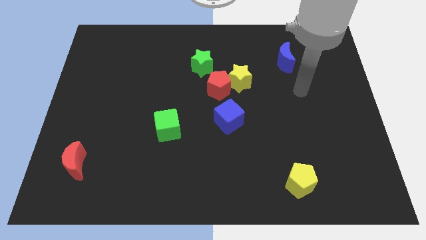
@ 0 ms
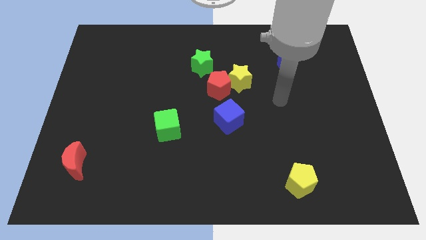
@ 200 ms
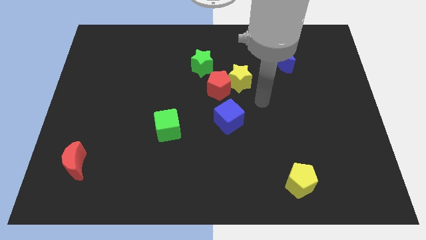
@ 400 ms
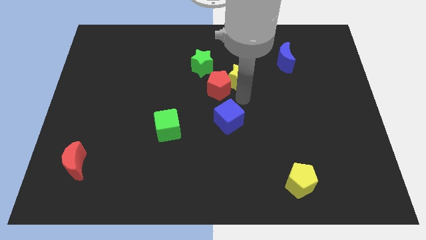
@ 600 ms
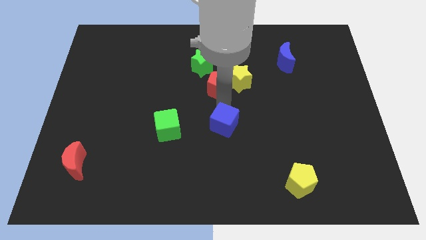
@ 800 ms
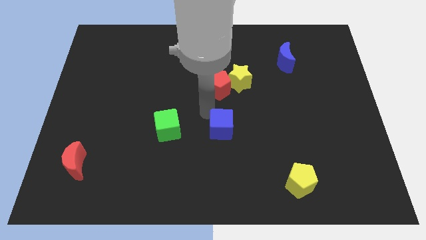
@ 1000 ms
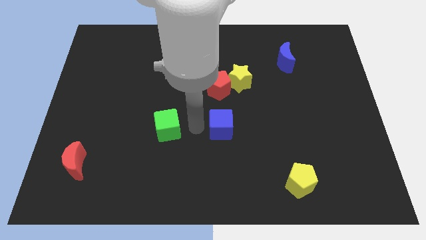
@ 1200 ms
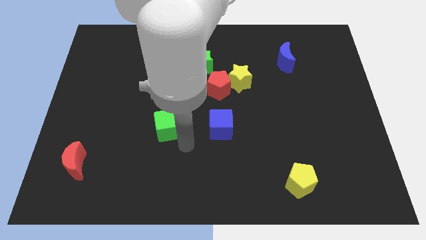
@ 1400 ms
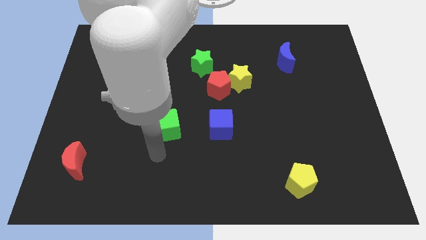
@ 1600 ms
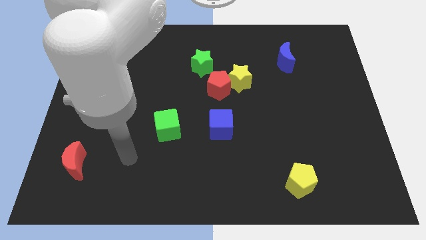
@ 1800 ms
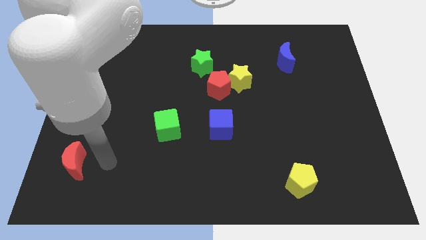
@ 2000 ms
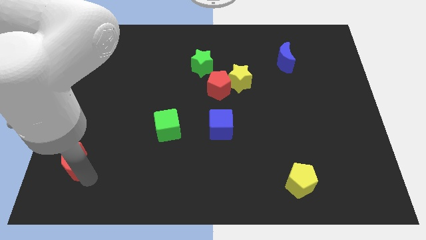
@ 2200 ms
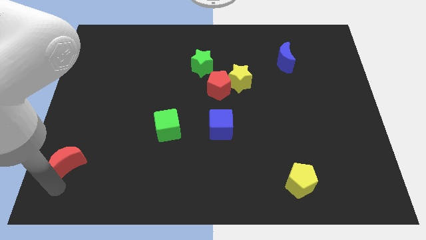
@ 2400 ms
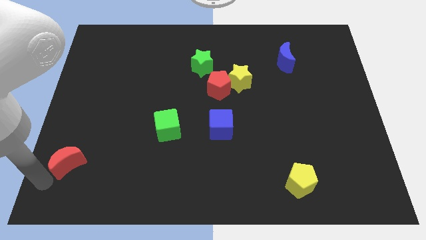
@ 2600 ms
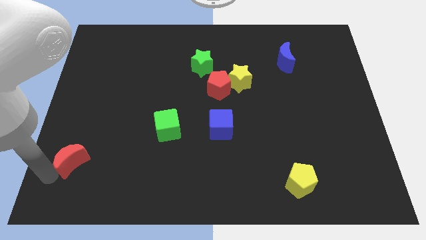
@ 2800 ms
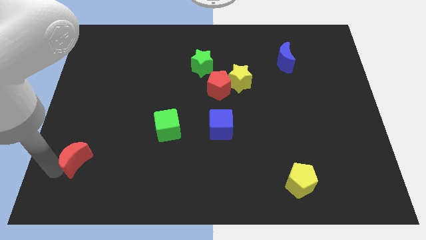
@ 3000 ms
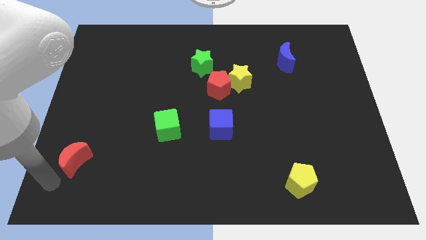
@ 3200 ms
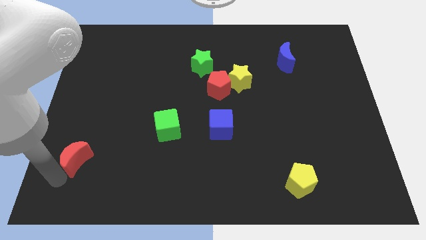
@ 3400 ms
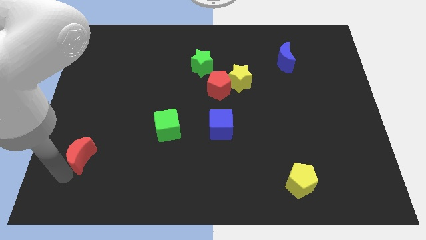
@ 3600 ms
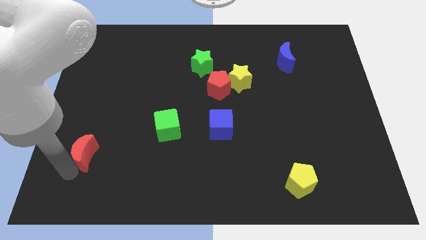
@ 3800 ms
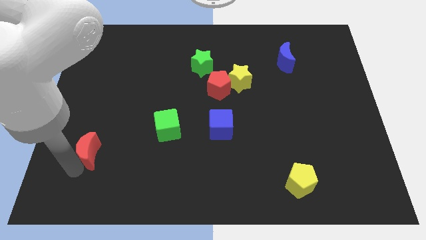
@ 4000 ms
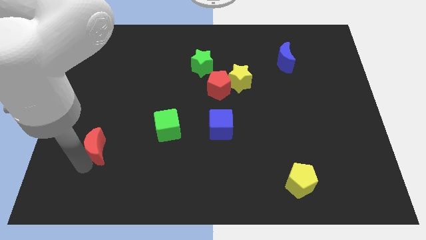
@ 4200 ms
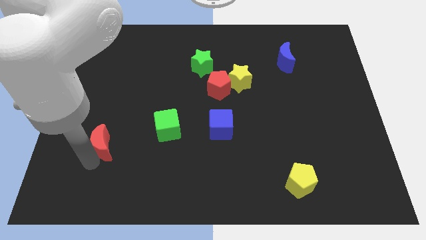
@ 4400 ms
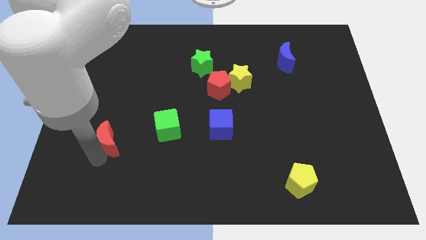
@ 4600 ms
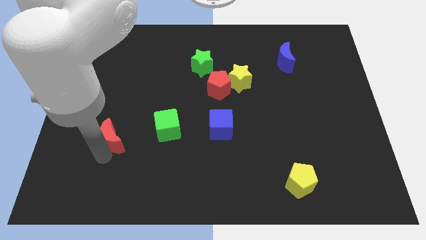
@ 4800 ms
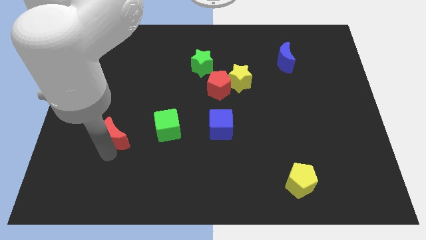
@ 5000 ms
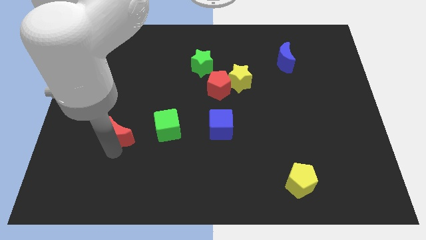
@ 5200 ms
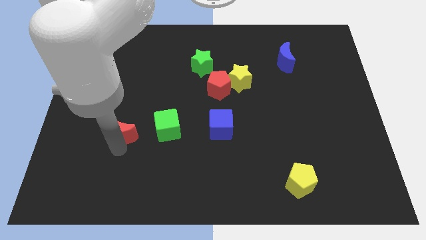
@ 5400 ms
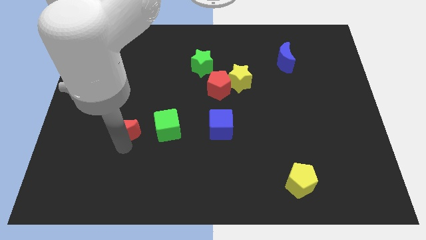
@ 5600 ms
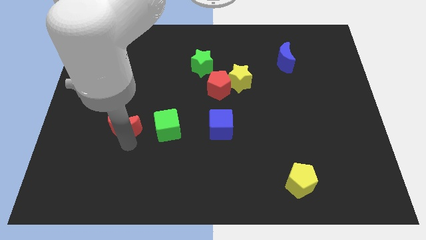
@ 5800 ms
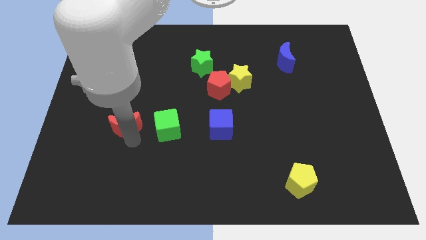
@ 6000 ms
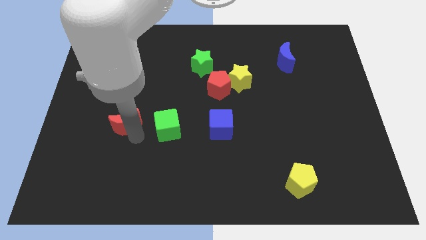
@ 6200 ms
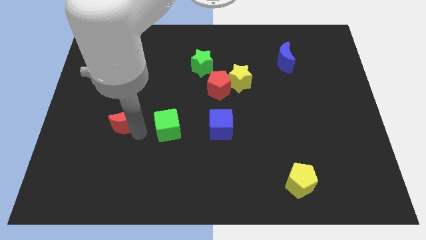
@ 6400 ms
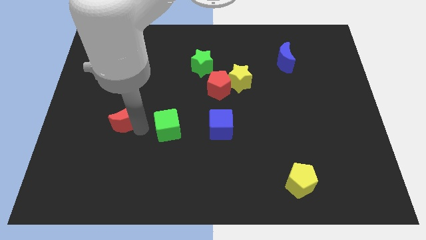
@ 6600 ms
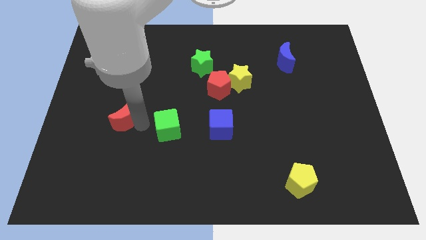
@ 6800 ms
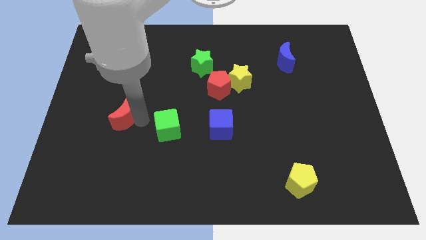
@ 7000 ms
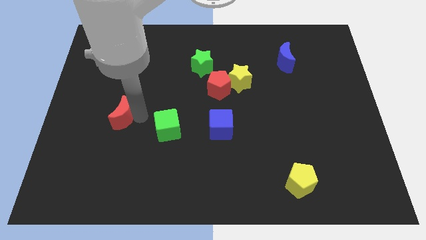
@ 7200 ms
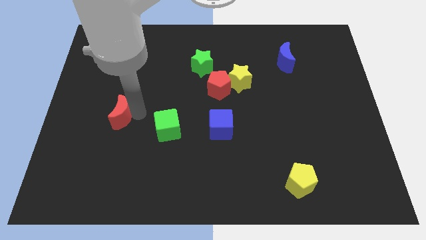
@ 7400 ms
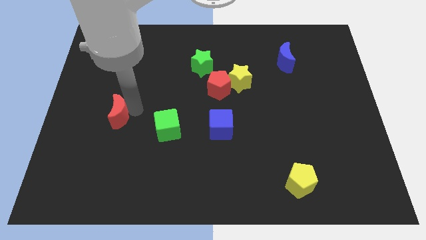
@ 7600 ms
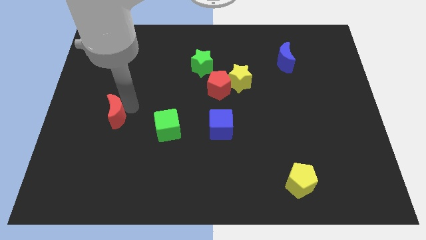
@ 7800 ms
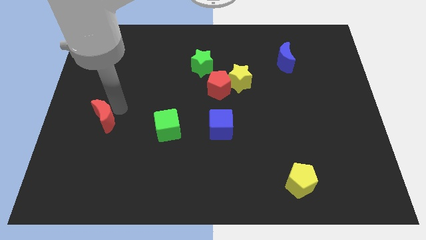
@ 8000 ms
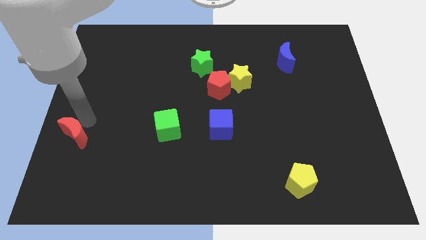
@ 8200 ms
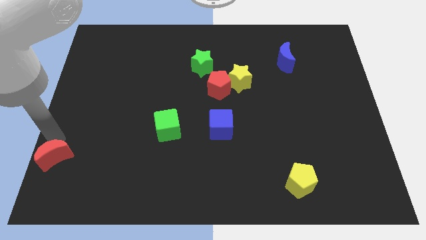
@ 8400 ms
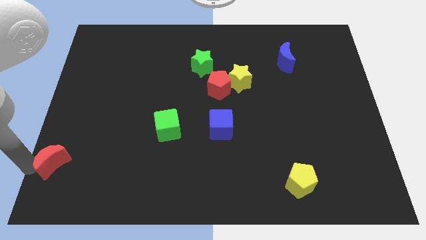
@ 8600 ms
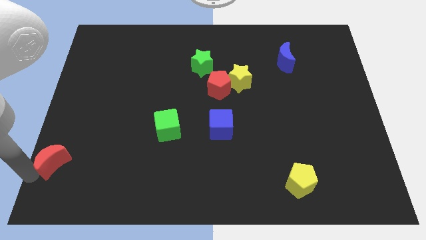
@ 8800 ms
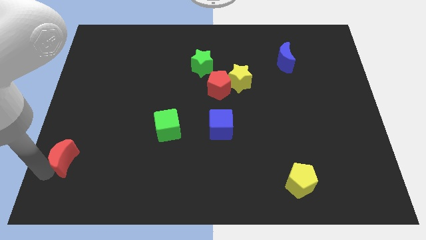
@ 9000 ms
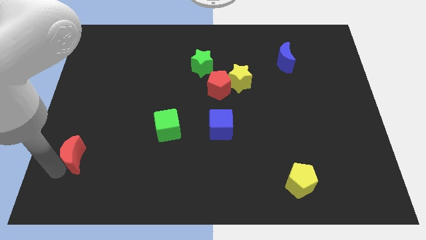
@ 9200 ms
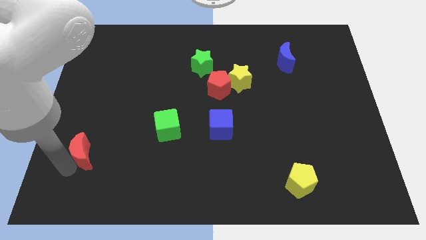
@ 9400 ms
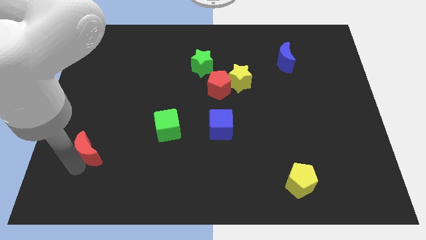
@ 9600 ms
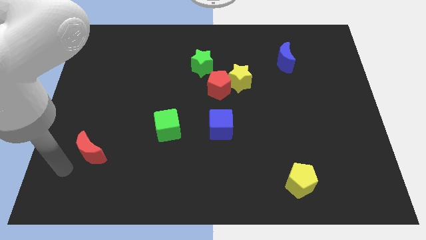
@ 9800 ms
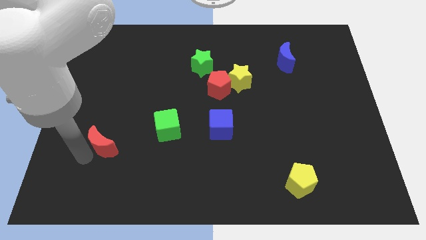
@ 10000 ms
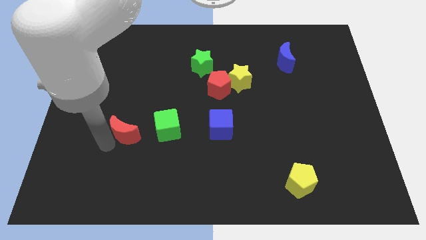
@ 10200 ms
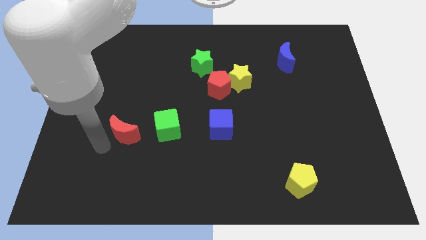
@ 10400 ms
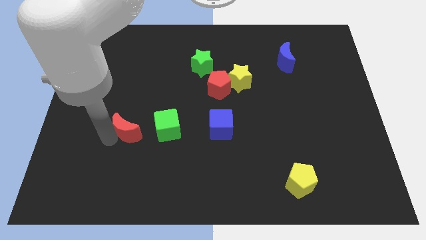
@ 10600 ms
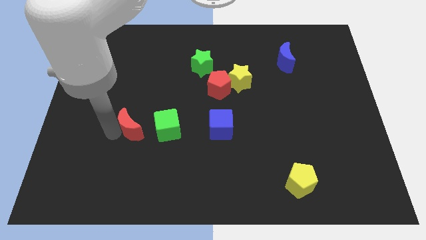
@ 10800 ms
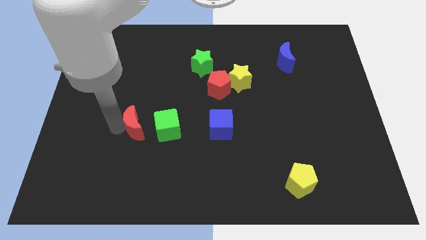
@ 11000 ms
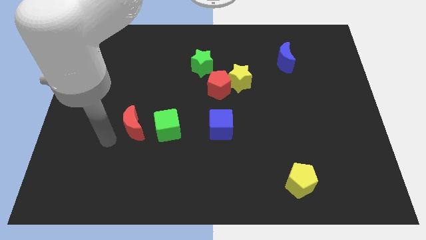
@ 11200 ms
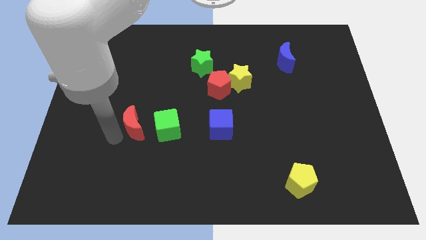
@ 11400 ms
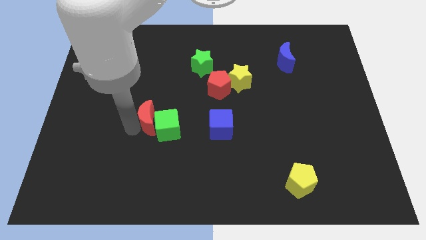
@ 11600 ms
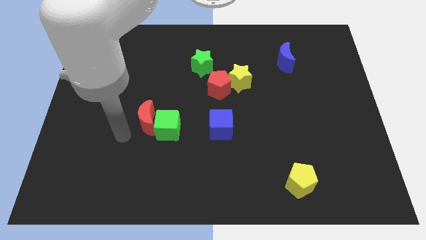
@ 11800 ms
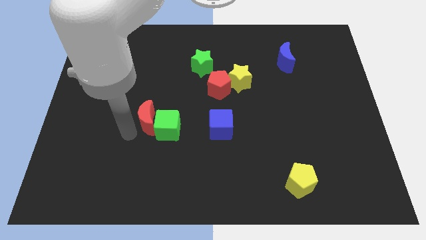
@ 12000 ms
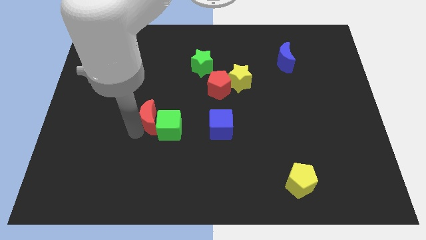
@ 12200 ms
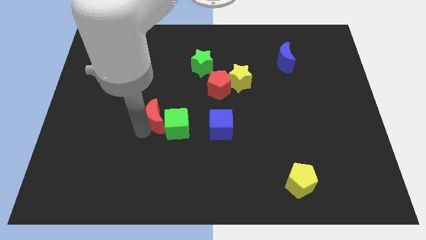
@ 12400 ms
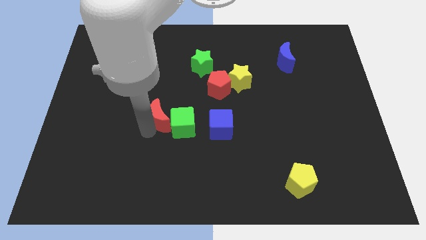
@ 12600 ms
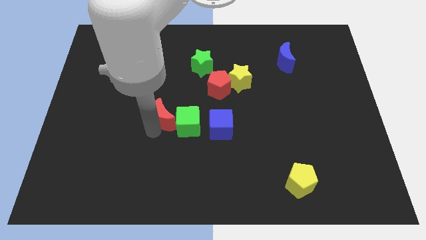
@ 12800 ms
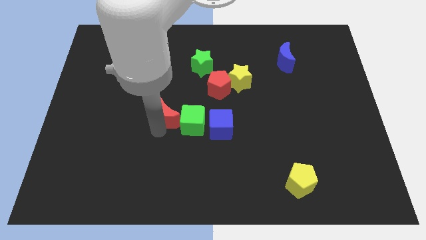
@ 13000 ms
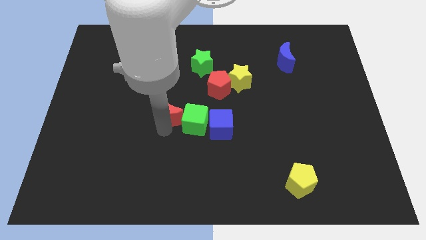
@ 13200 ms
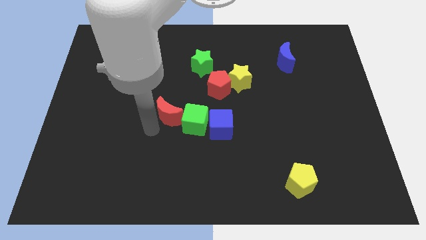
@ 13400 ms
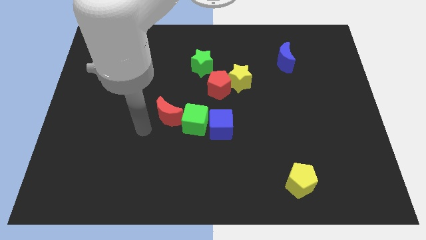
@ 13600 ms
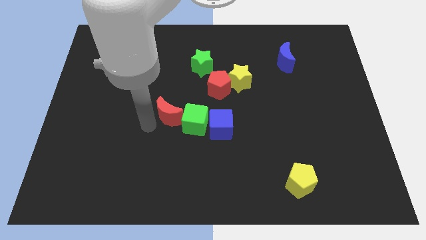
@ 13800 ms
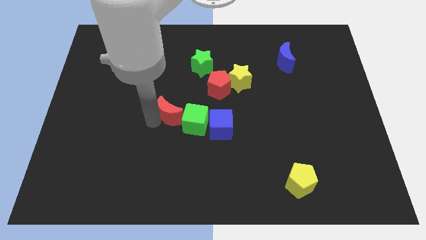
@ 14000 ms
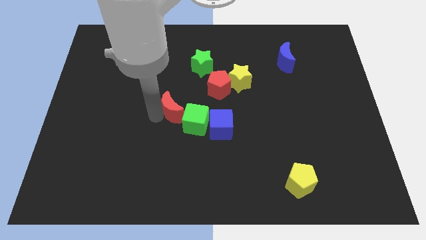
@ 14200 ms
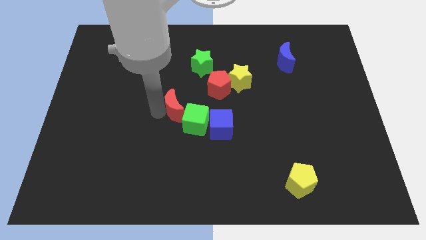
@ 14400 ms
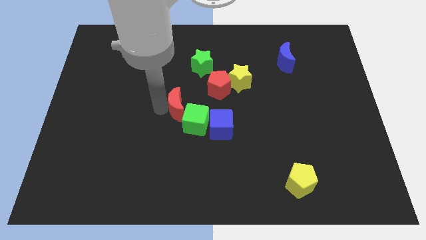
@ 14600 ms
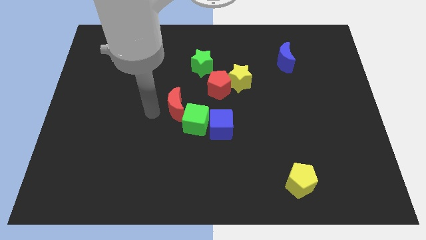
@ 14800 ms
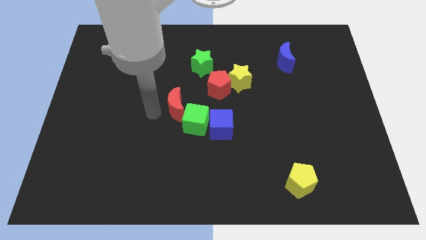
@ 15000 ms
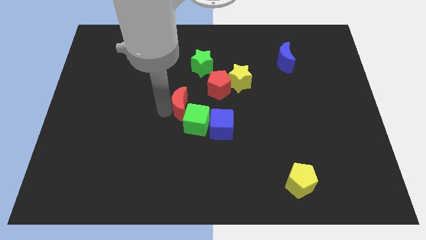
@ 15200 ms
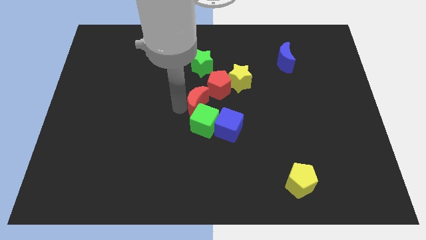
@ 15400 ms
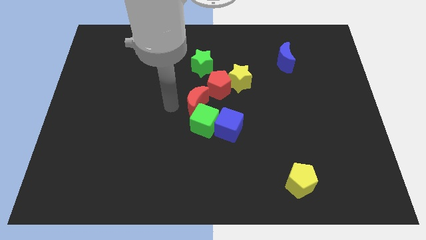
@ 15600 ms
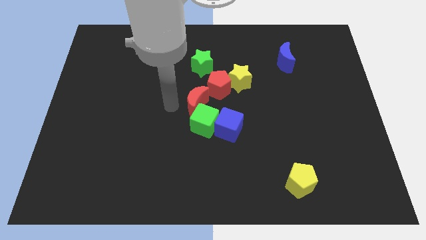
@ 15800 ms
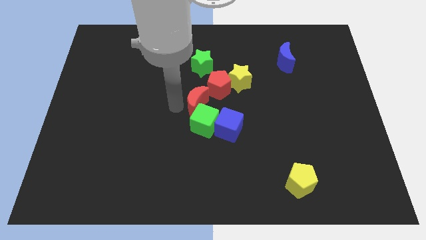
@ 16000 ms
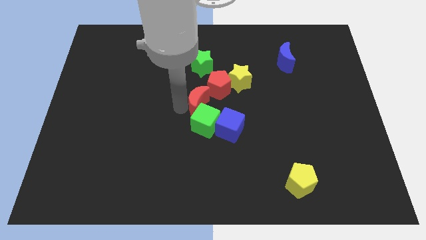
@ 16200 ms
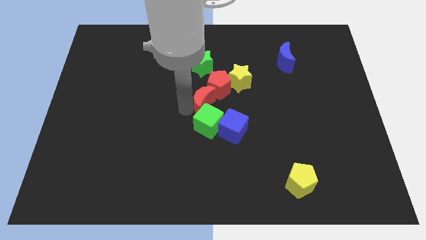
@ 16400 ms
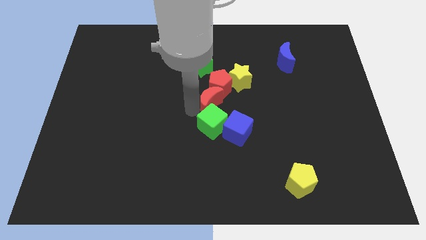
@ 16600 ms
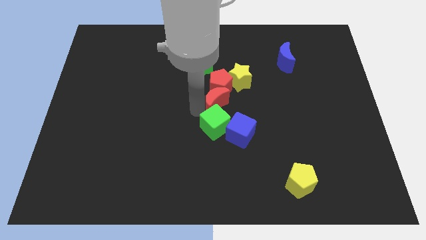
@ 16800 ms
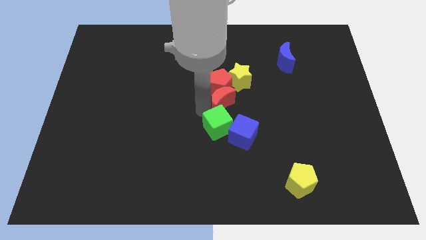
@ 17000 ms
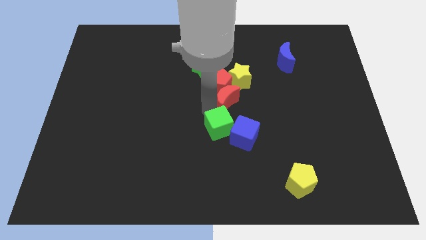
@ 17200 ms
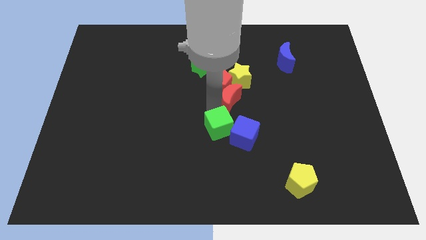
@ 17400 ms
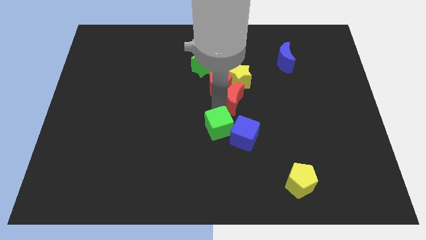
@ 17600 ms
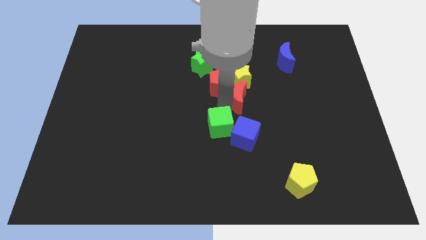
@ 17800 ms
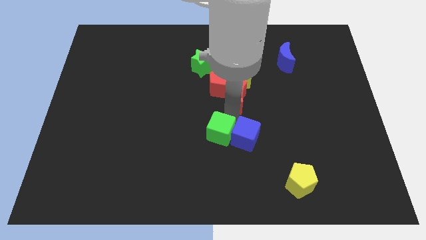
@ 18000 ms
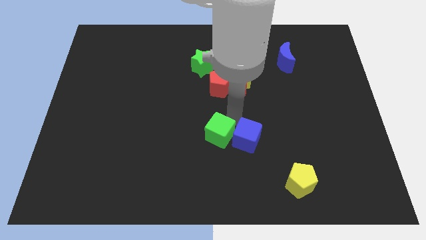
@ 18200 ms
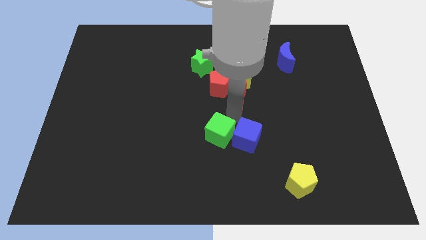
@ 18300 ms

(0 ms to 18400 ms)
move the red moon towards the yellow star
